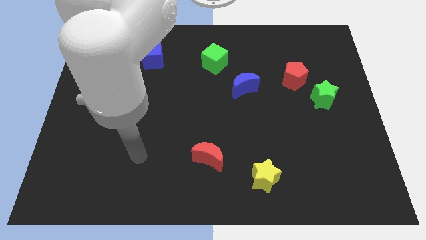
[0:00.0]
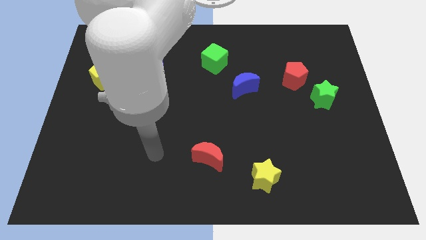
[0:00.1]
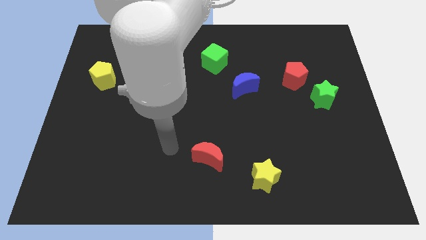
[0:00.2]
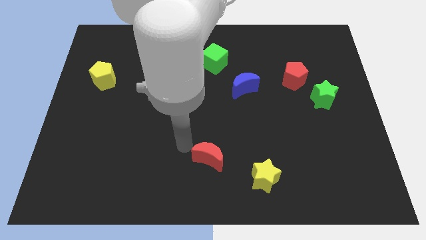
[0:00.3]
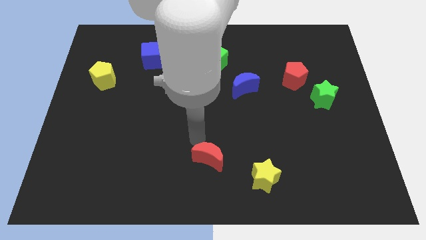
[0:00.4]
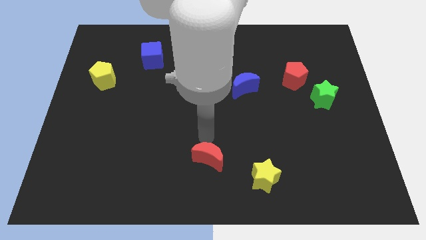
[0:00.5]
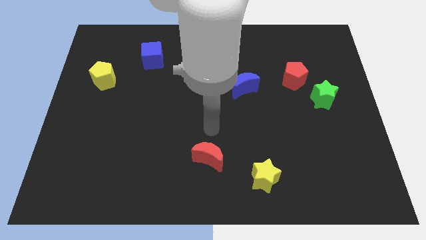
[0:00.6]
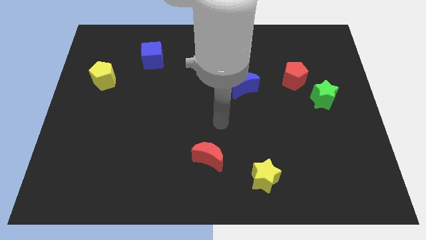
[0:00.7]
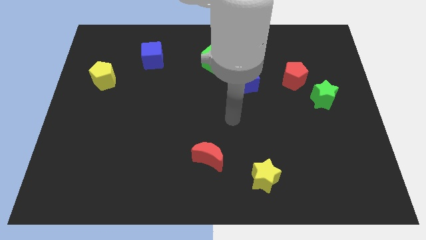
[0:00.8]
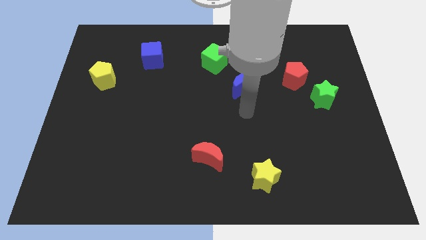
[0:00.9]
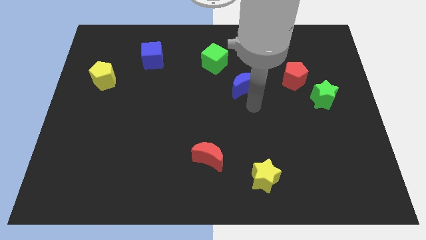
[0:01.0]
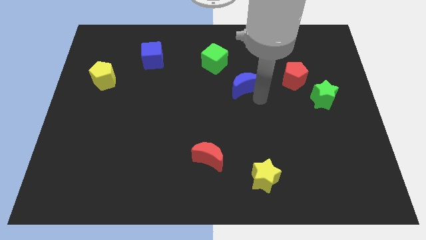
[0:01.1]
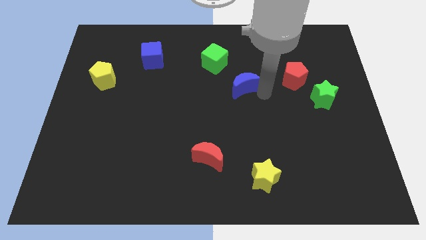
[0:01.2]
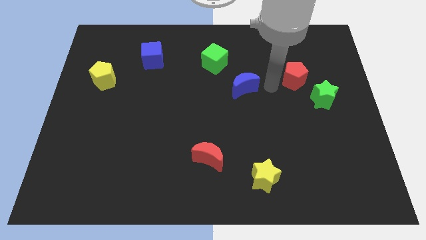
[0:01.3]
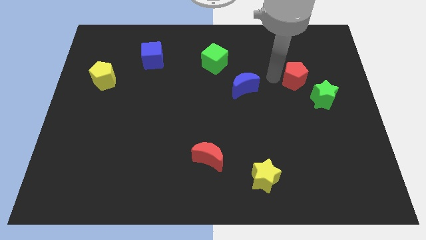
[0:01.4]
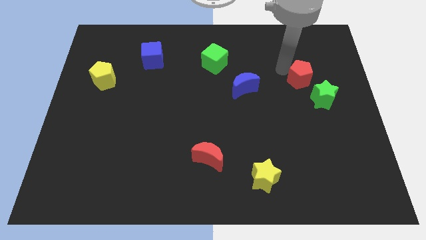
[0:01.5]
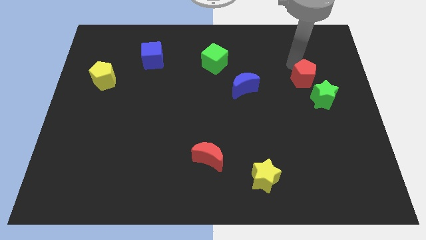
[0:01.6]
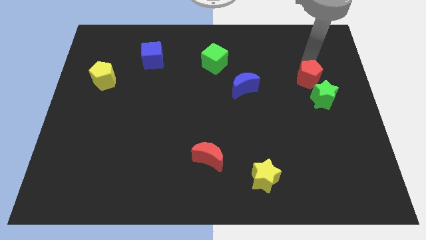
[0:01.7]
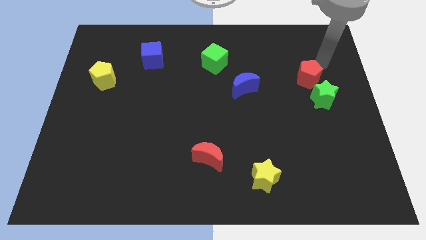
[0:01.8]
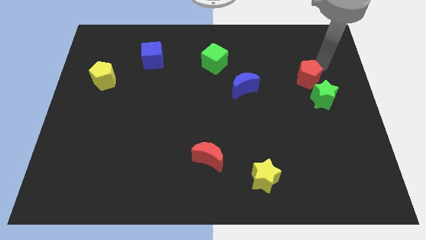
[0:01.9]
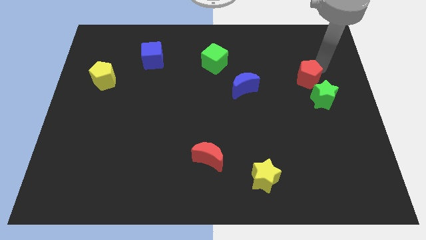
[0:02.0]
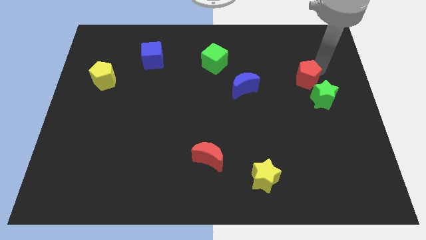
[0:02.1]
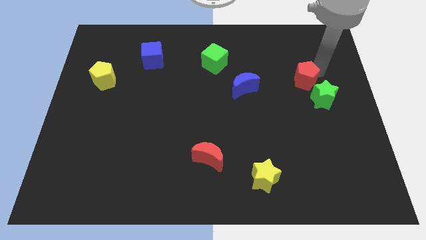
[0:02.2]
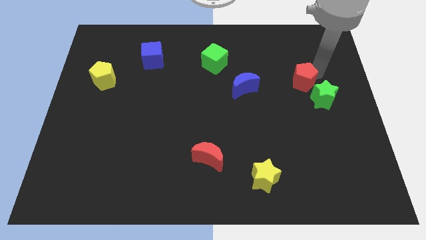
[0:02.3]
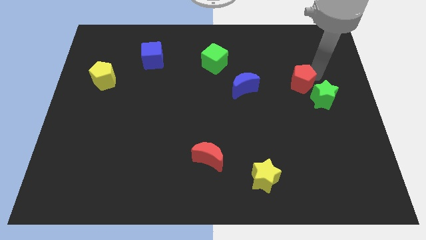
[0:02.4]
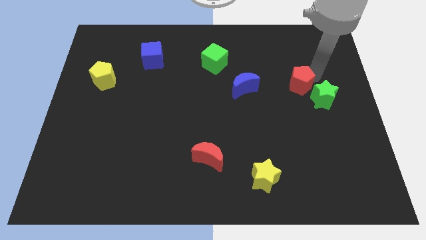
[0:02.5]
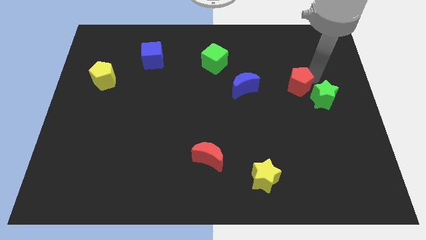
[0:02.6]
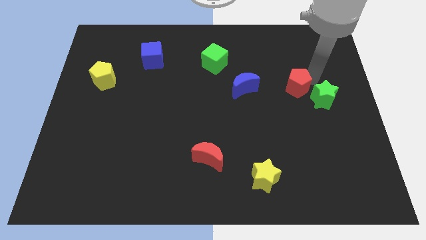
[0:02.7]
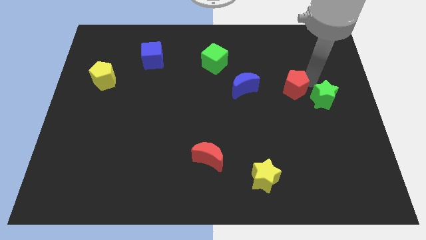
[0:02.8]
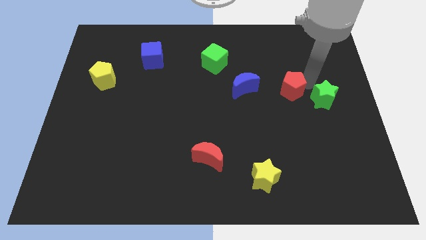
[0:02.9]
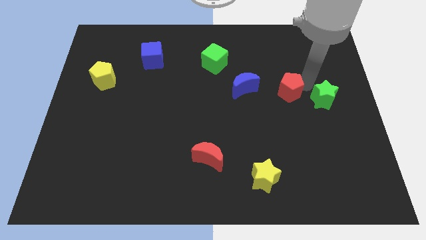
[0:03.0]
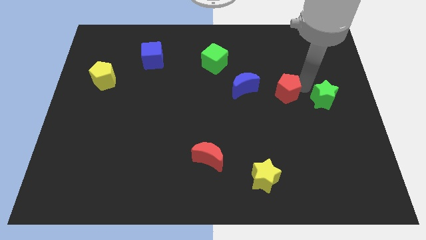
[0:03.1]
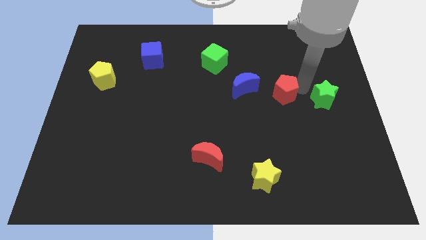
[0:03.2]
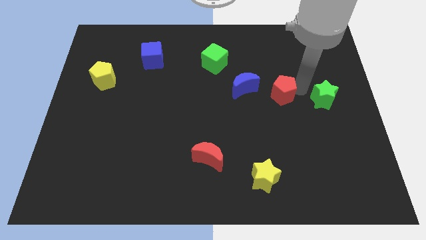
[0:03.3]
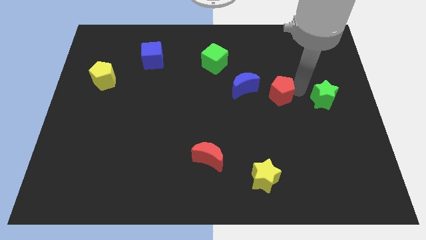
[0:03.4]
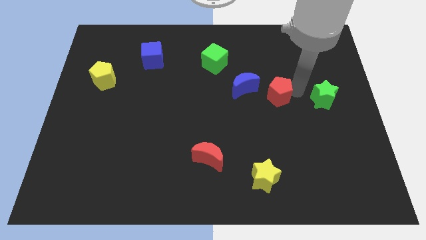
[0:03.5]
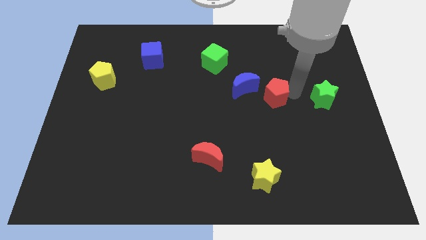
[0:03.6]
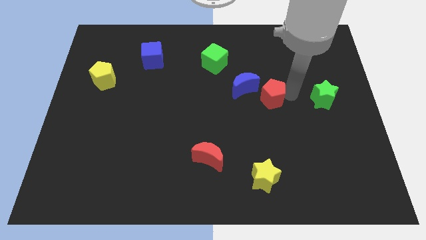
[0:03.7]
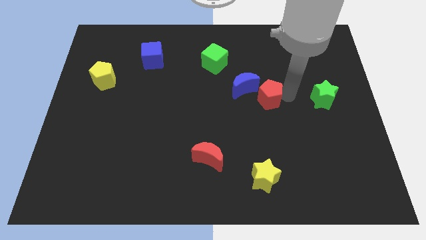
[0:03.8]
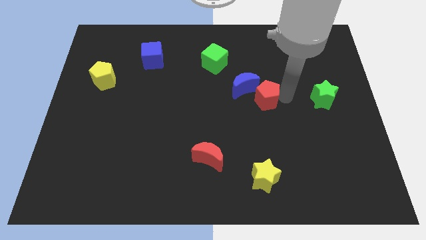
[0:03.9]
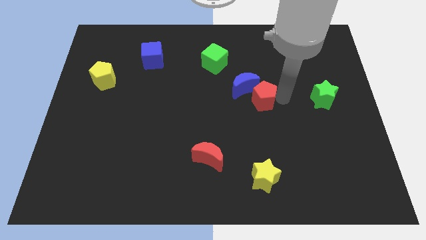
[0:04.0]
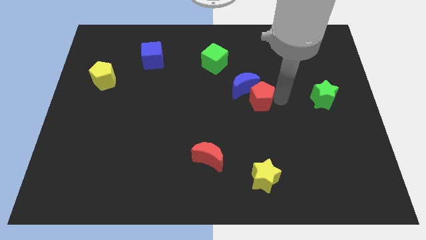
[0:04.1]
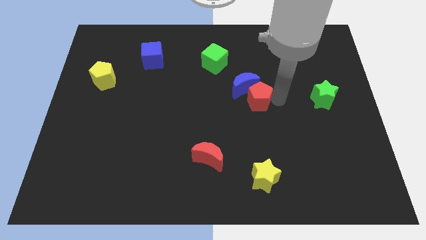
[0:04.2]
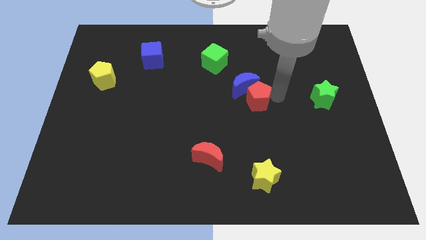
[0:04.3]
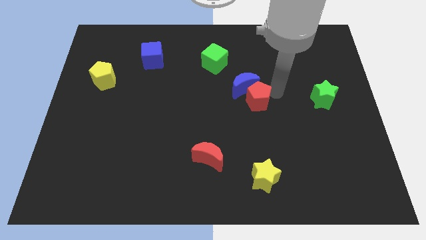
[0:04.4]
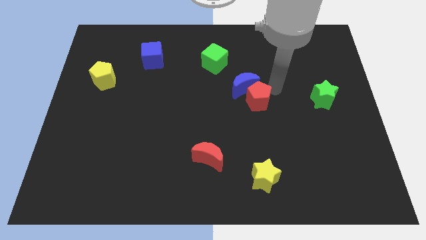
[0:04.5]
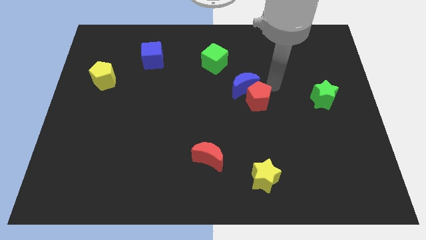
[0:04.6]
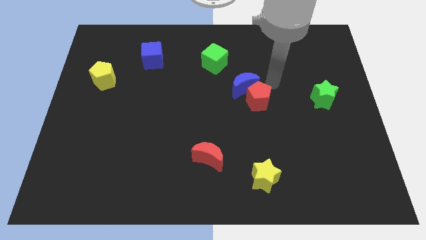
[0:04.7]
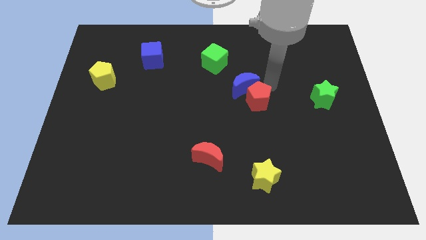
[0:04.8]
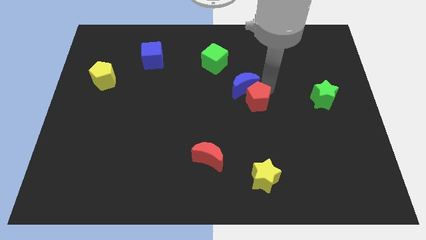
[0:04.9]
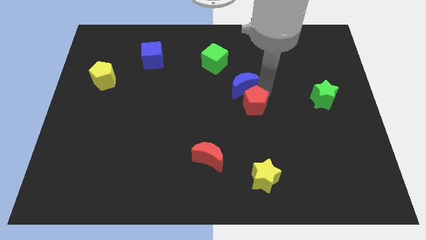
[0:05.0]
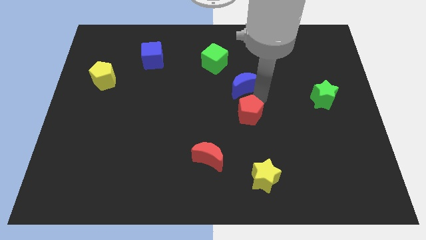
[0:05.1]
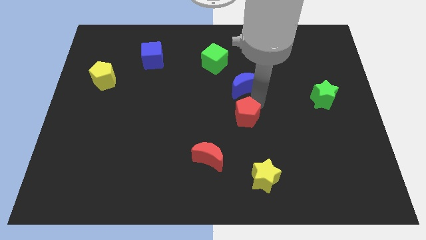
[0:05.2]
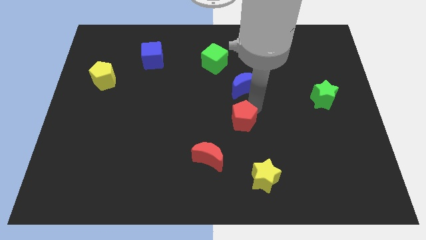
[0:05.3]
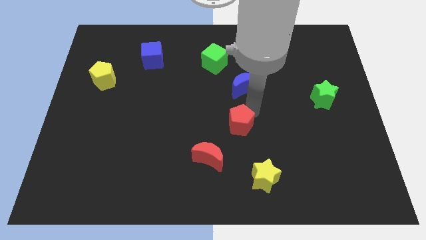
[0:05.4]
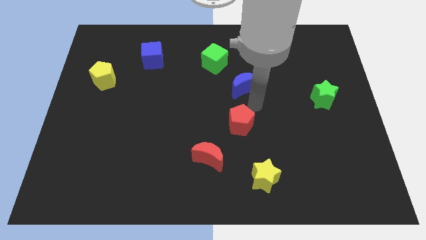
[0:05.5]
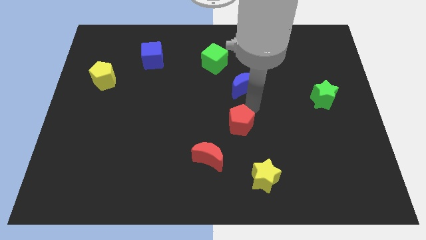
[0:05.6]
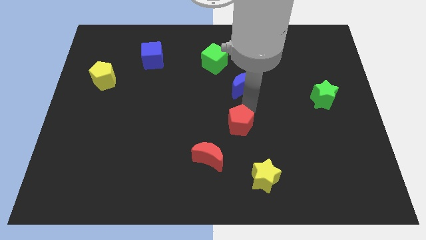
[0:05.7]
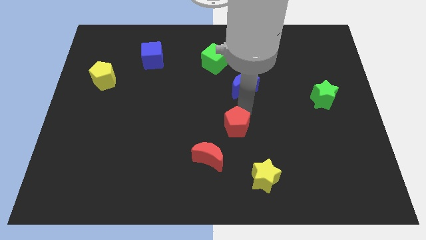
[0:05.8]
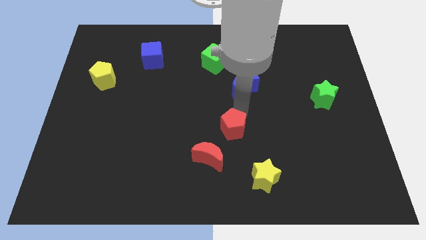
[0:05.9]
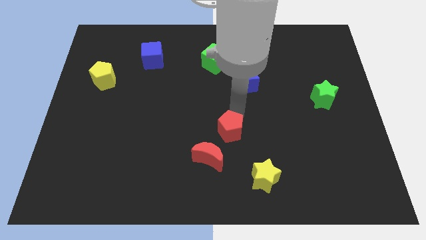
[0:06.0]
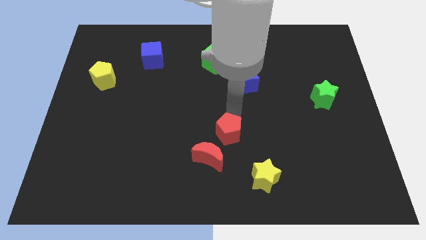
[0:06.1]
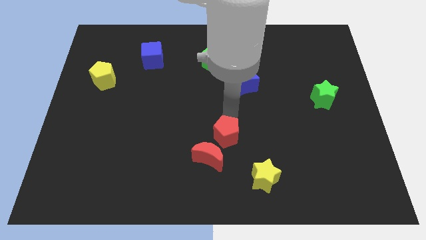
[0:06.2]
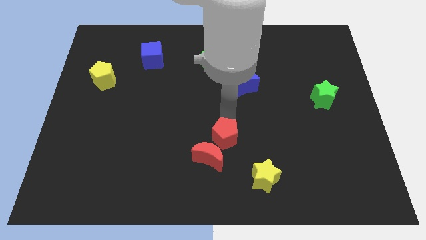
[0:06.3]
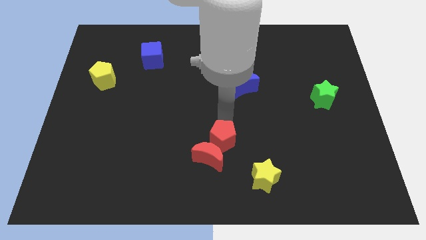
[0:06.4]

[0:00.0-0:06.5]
put the red pentagon to the red moon
